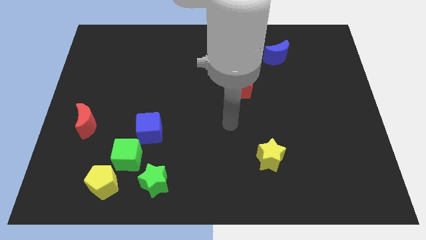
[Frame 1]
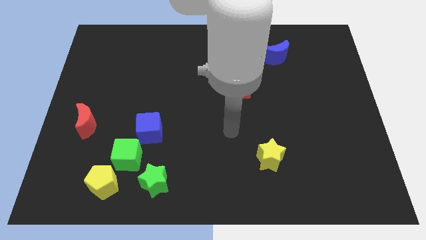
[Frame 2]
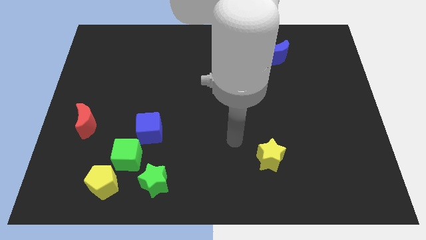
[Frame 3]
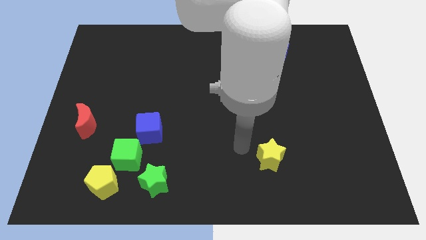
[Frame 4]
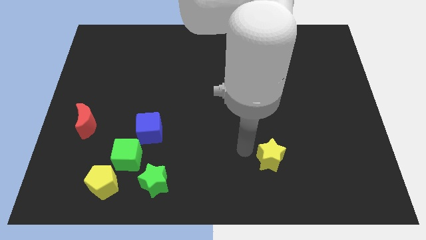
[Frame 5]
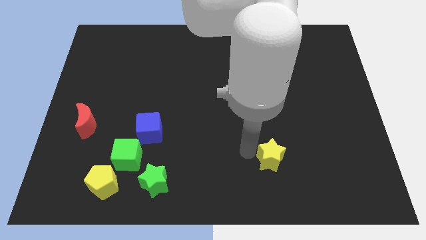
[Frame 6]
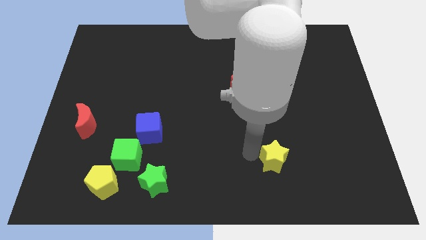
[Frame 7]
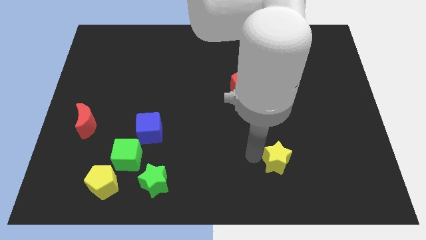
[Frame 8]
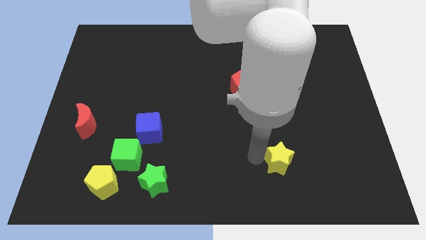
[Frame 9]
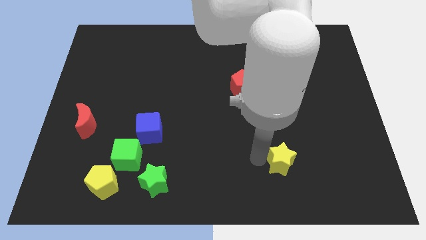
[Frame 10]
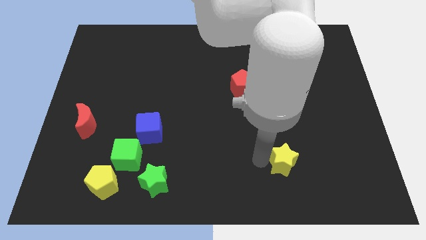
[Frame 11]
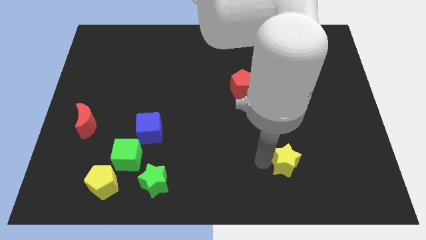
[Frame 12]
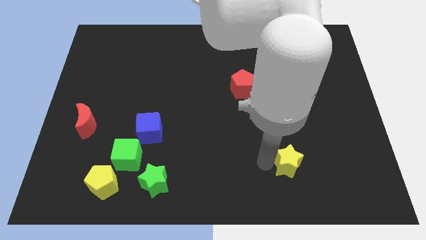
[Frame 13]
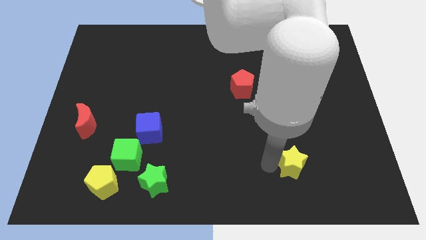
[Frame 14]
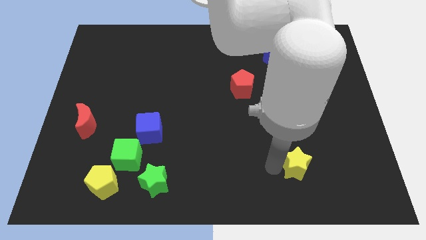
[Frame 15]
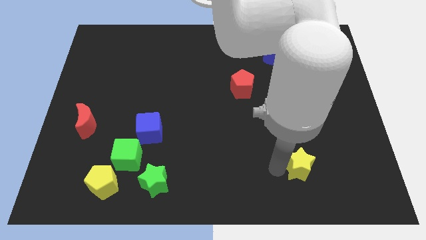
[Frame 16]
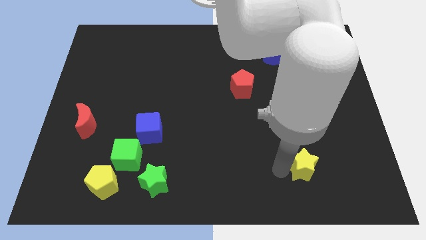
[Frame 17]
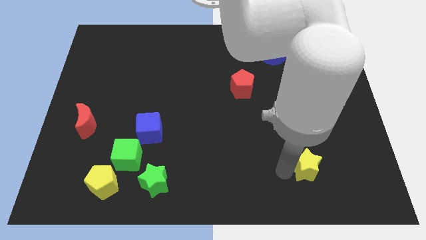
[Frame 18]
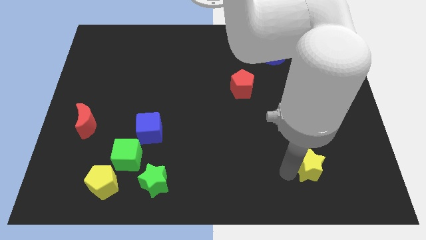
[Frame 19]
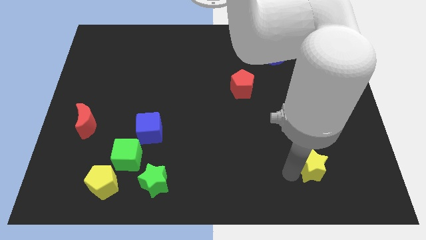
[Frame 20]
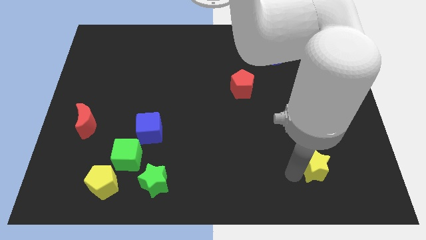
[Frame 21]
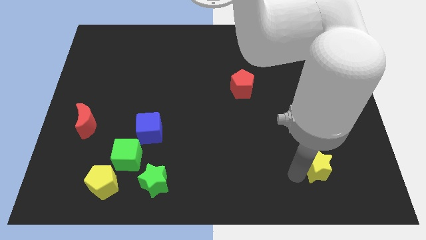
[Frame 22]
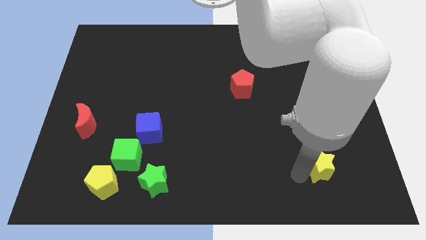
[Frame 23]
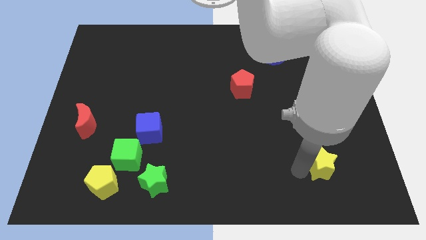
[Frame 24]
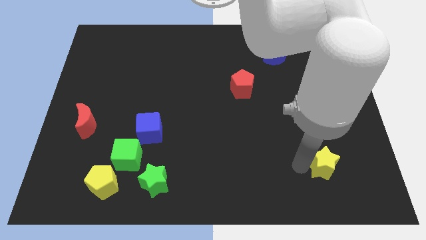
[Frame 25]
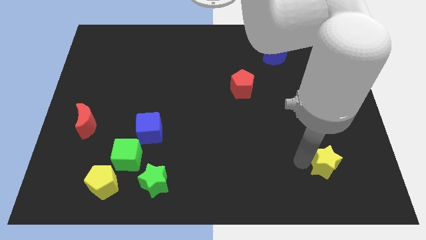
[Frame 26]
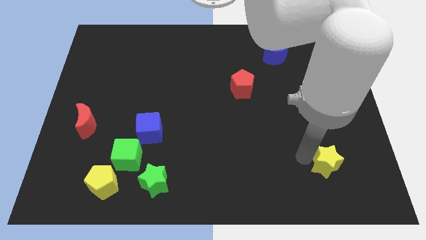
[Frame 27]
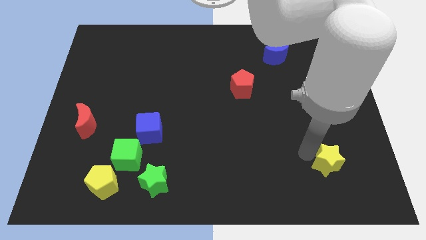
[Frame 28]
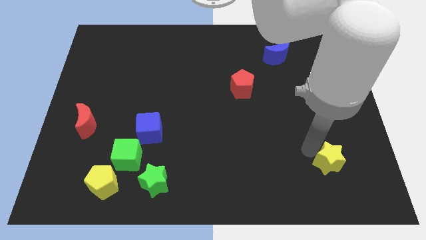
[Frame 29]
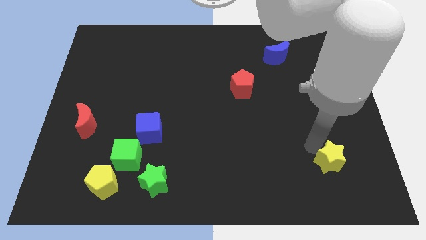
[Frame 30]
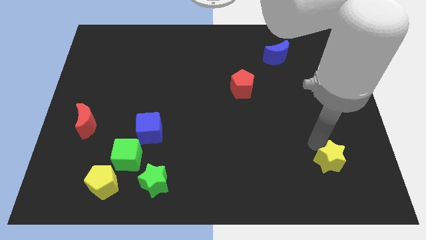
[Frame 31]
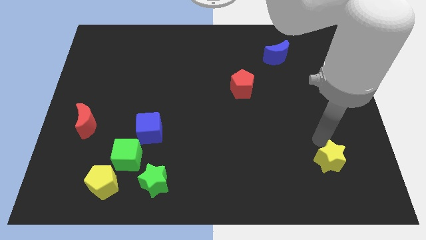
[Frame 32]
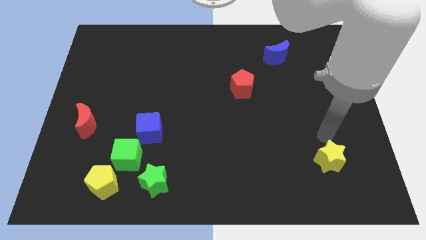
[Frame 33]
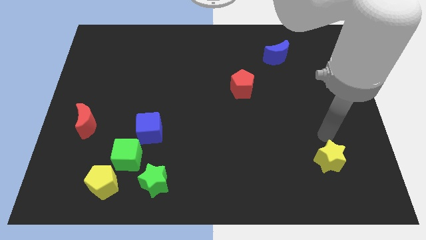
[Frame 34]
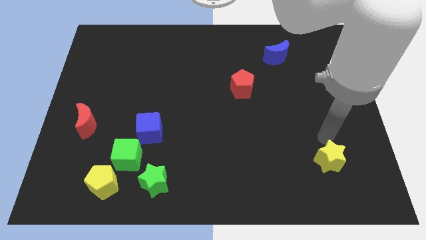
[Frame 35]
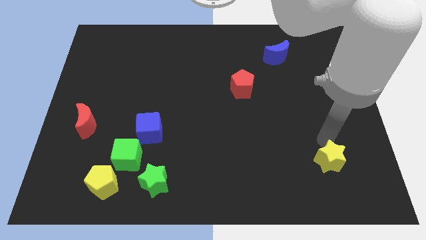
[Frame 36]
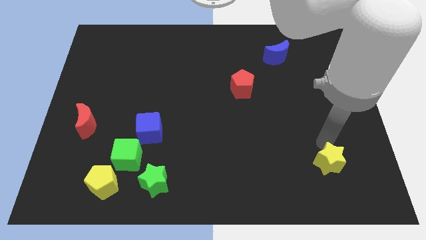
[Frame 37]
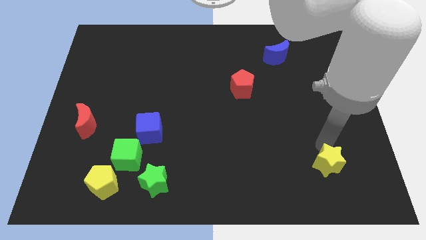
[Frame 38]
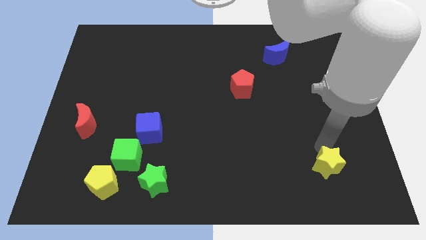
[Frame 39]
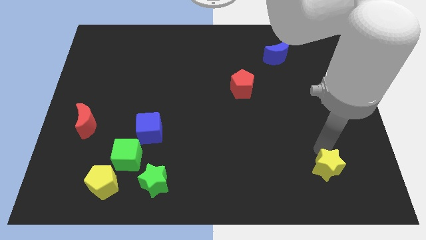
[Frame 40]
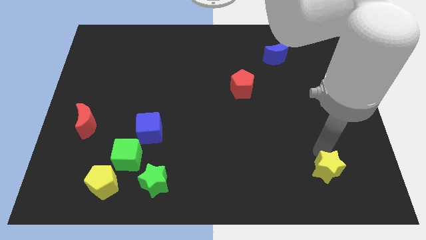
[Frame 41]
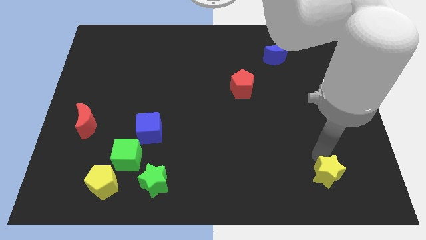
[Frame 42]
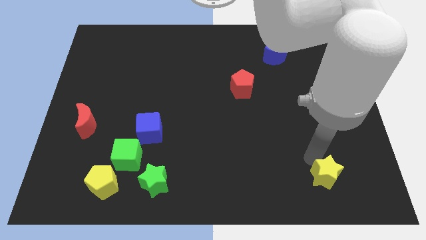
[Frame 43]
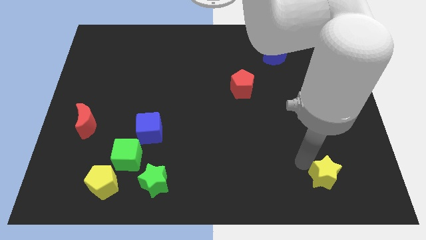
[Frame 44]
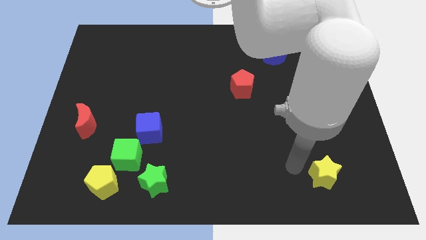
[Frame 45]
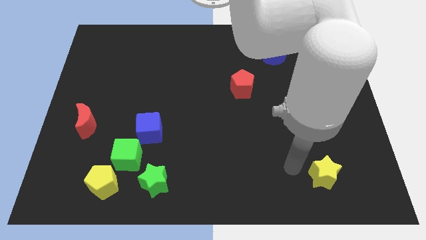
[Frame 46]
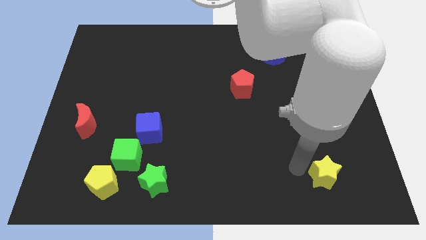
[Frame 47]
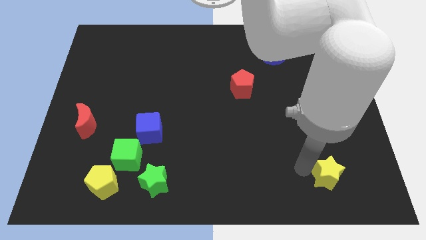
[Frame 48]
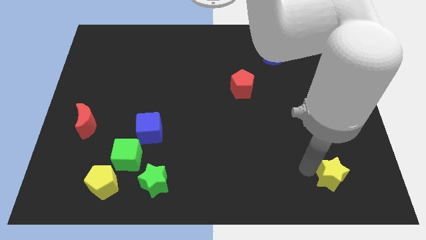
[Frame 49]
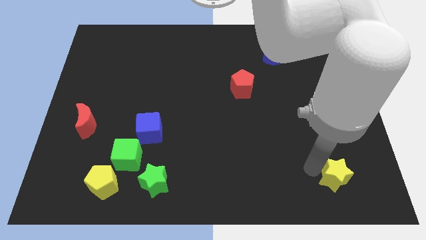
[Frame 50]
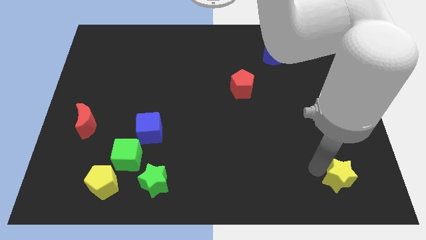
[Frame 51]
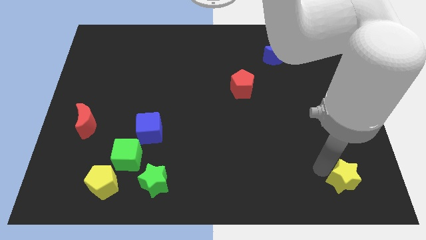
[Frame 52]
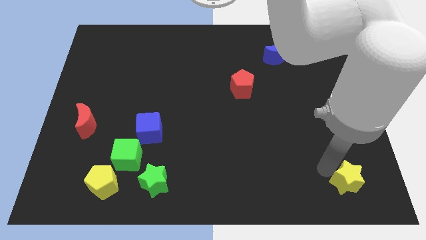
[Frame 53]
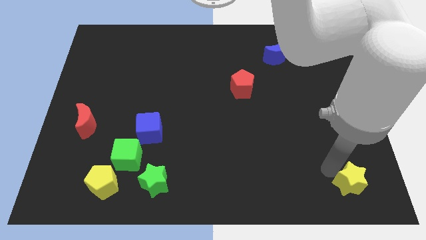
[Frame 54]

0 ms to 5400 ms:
slide the yellow star to the bottom right

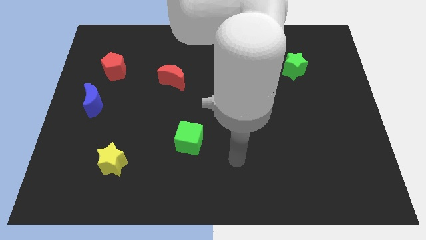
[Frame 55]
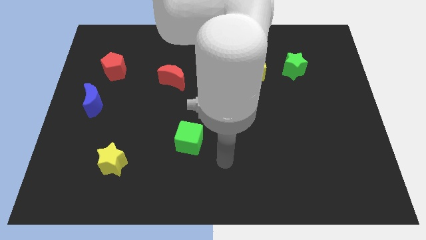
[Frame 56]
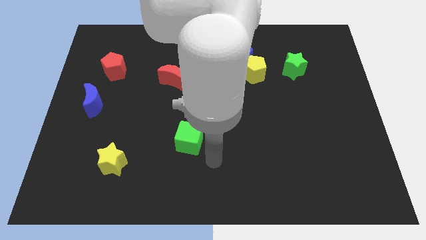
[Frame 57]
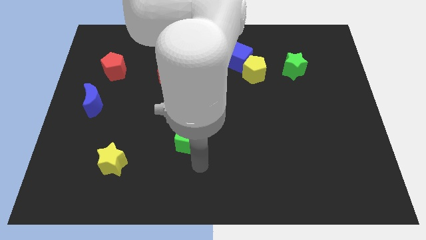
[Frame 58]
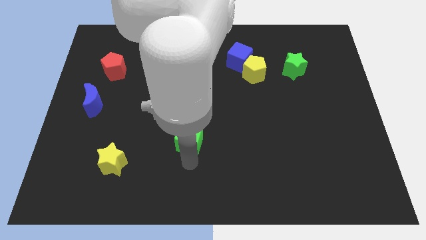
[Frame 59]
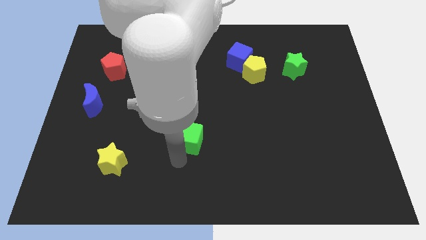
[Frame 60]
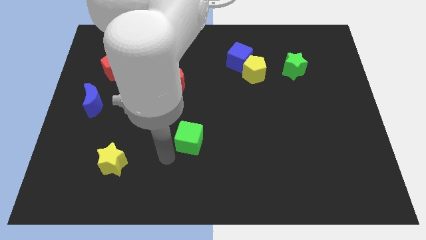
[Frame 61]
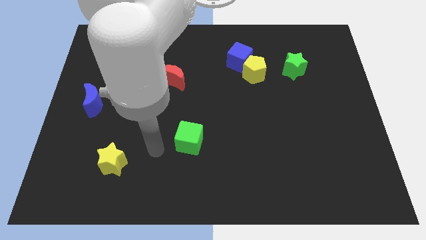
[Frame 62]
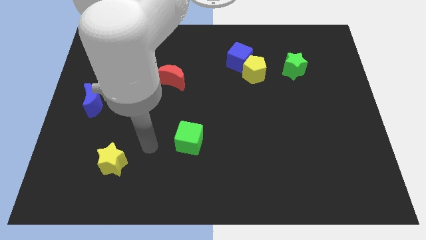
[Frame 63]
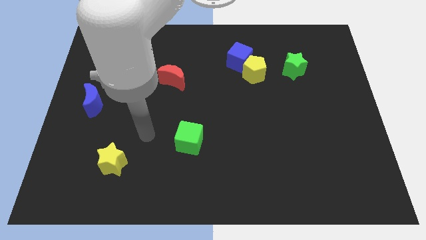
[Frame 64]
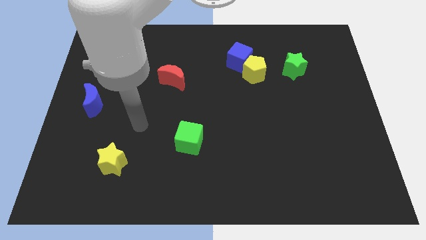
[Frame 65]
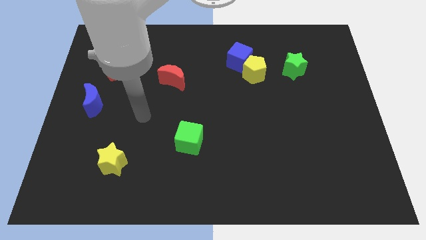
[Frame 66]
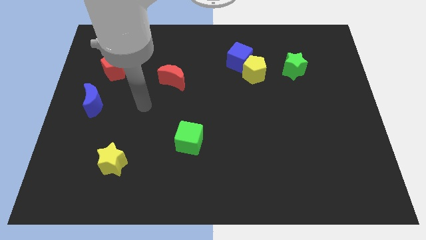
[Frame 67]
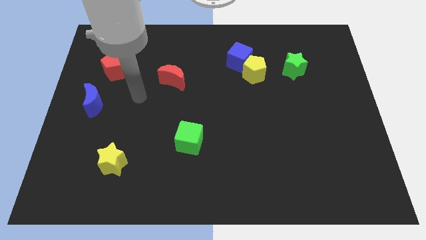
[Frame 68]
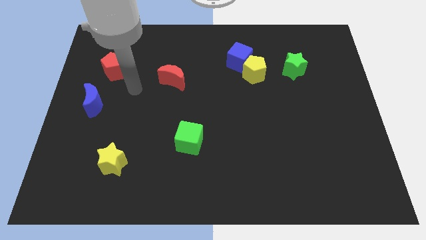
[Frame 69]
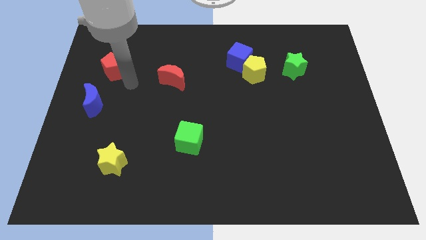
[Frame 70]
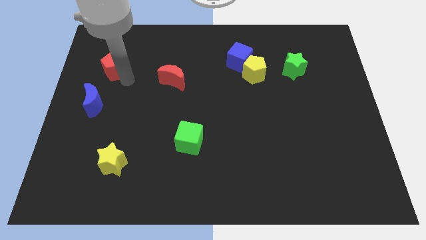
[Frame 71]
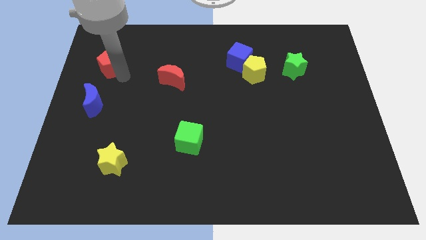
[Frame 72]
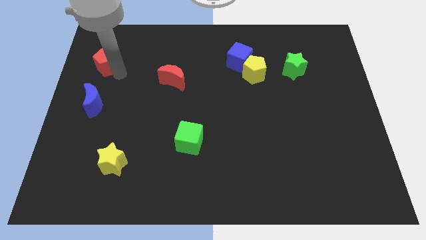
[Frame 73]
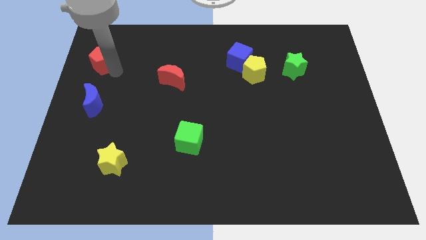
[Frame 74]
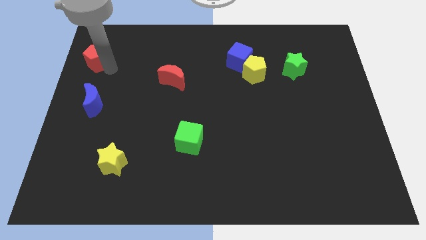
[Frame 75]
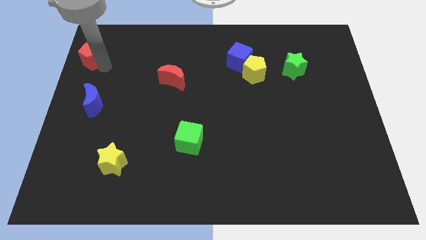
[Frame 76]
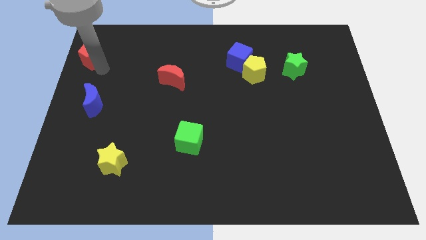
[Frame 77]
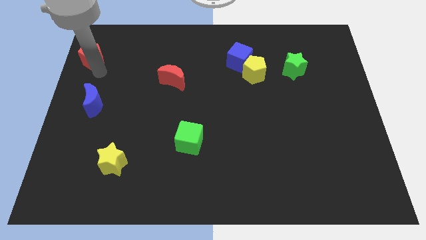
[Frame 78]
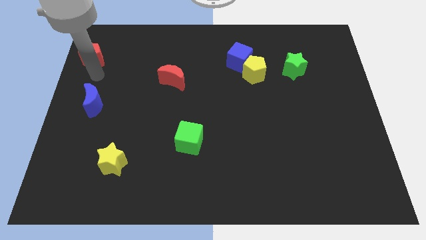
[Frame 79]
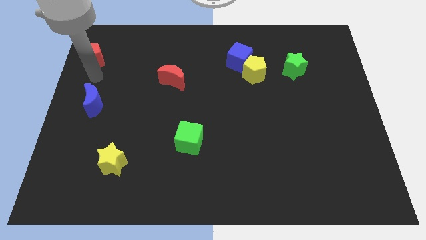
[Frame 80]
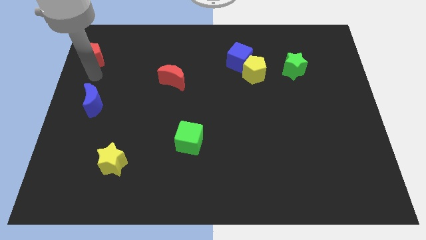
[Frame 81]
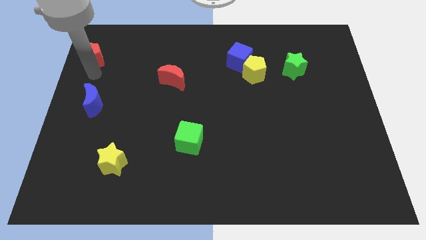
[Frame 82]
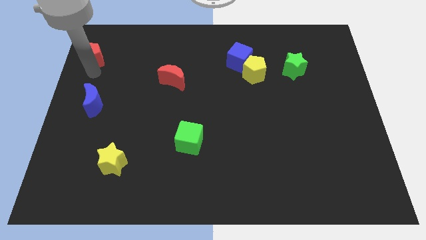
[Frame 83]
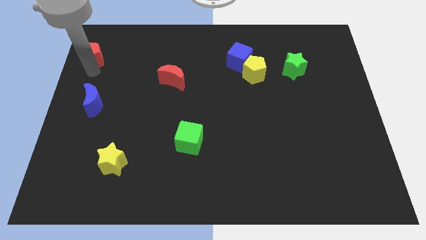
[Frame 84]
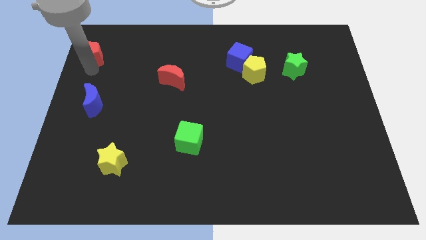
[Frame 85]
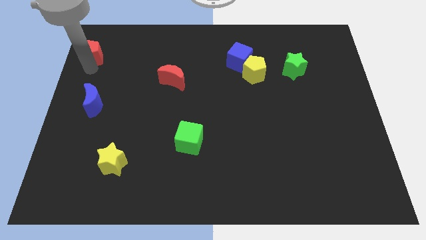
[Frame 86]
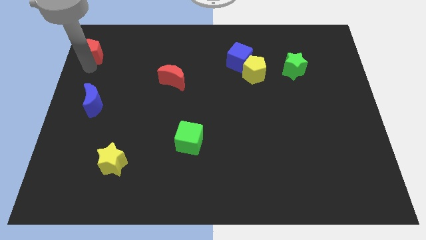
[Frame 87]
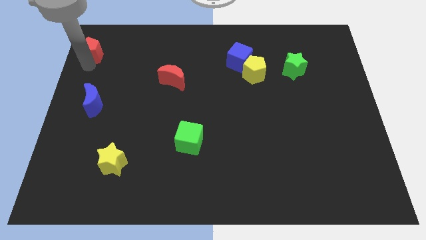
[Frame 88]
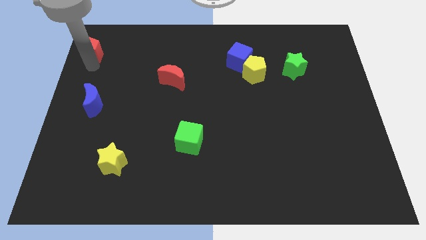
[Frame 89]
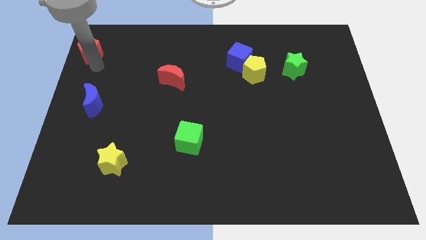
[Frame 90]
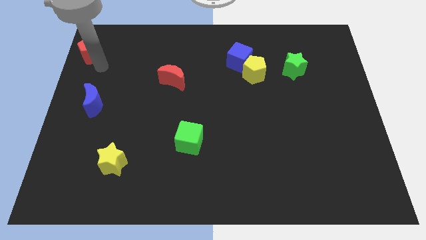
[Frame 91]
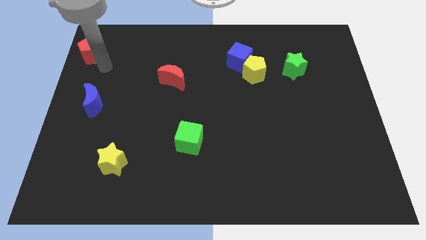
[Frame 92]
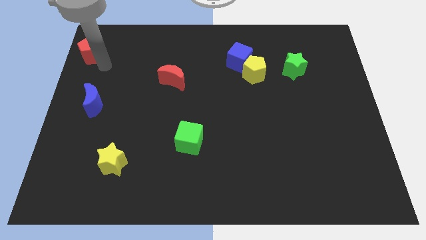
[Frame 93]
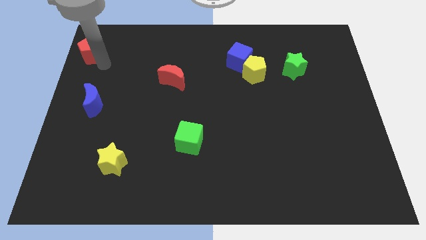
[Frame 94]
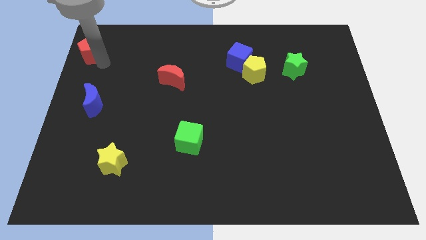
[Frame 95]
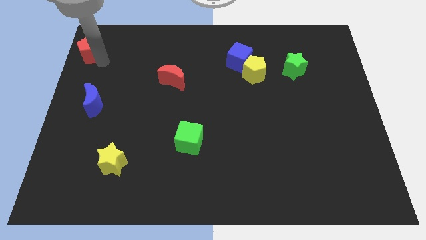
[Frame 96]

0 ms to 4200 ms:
move the red pentagon to the upper left corner
